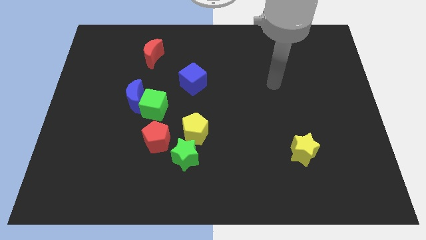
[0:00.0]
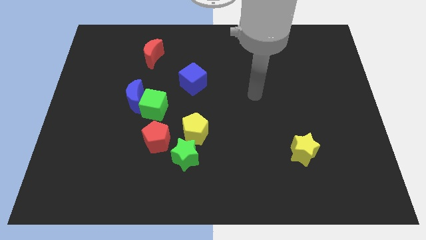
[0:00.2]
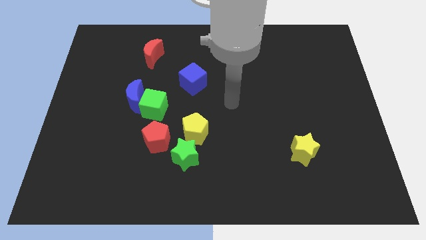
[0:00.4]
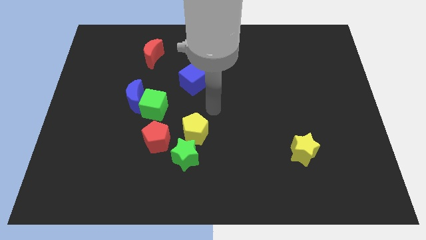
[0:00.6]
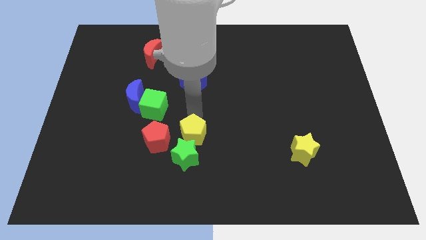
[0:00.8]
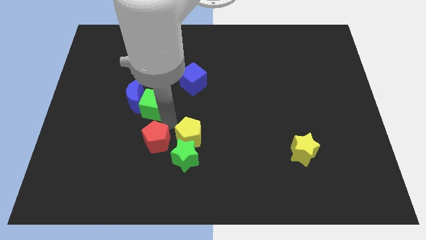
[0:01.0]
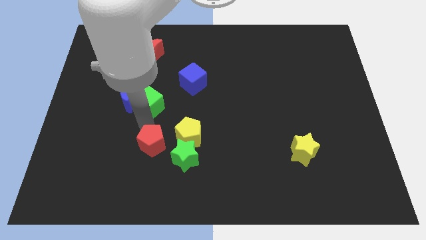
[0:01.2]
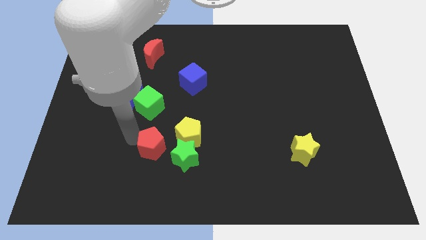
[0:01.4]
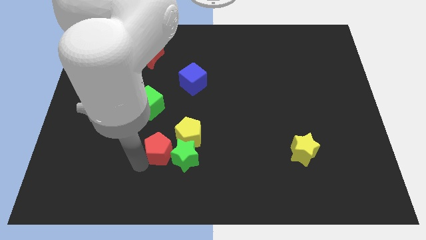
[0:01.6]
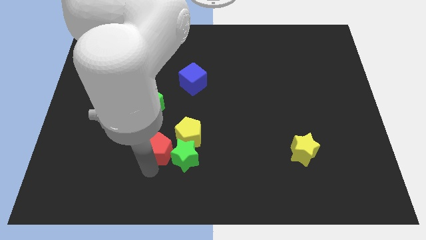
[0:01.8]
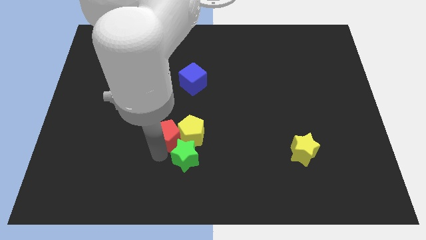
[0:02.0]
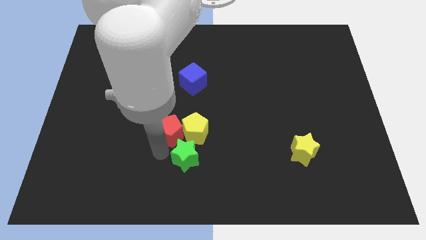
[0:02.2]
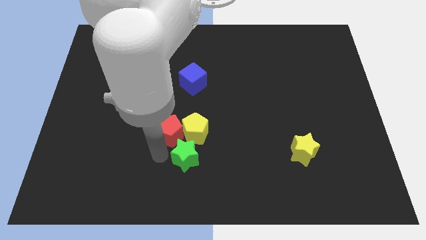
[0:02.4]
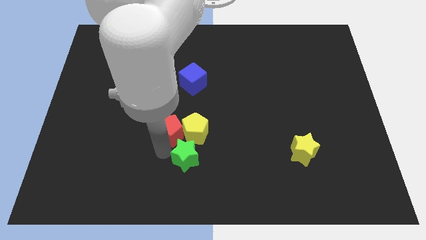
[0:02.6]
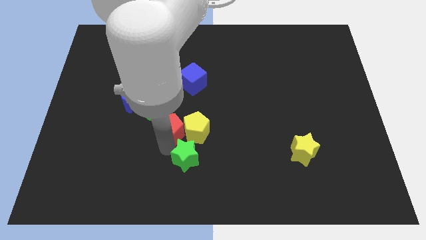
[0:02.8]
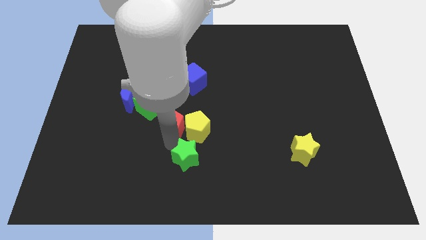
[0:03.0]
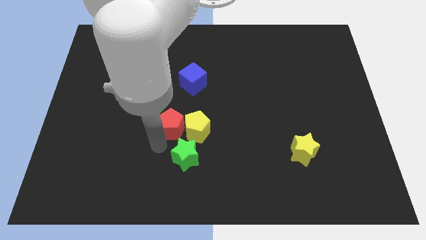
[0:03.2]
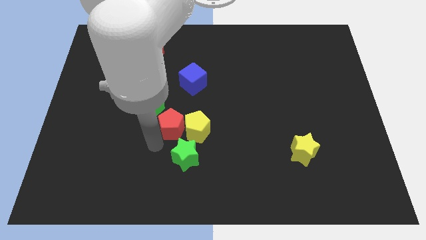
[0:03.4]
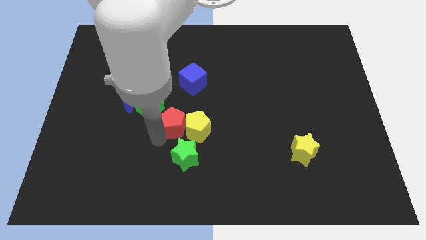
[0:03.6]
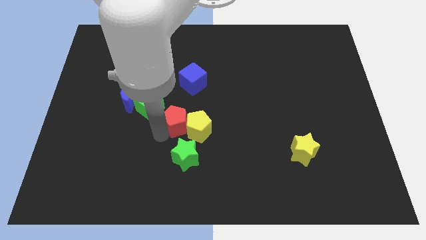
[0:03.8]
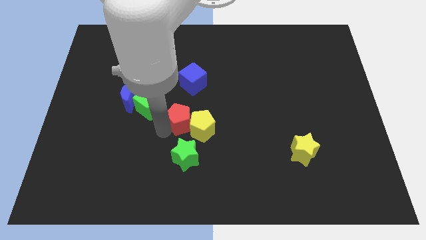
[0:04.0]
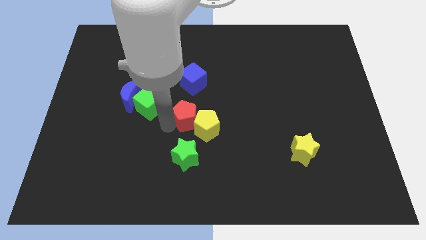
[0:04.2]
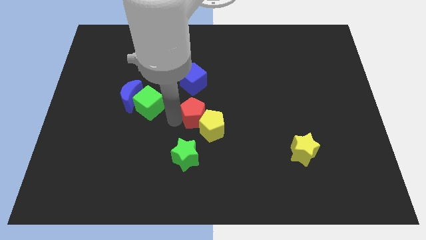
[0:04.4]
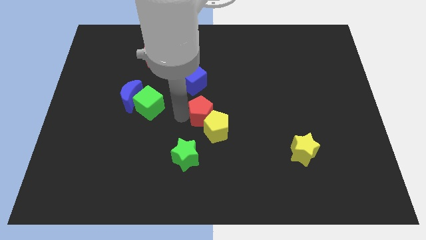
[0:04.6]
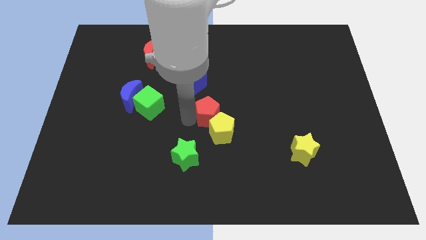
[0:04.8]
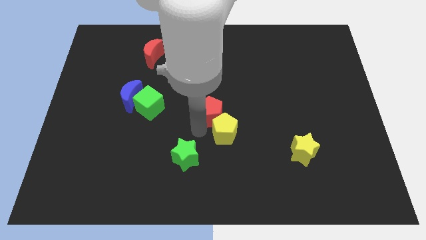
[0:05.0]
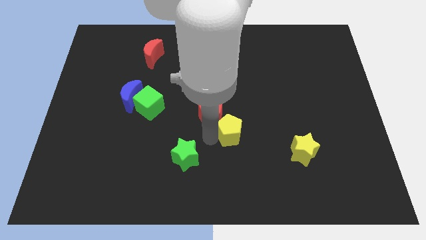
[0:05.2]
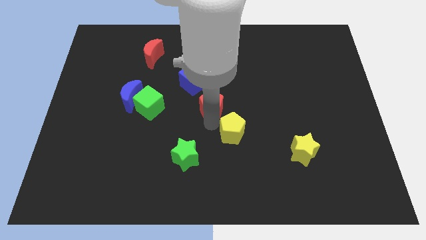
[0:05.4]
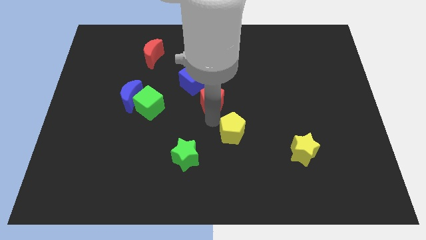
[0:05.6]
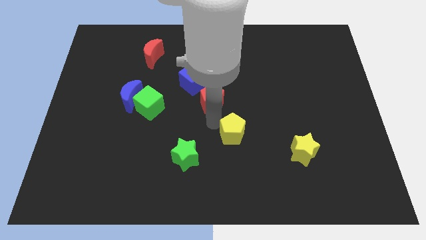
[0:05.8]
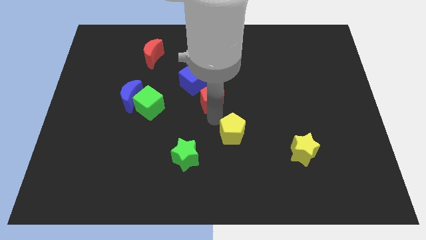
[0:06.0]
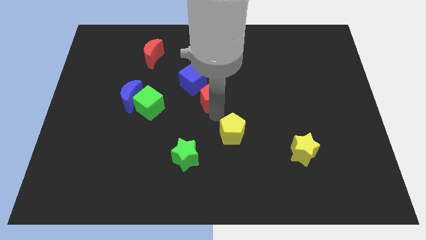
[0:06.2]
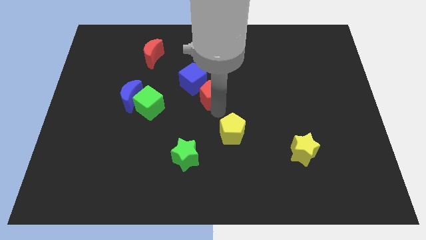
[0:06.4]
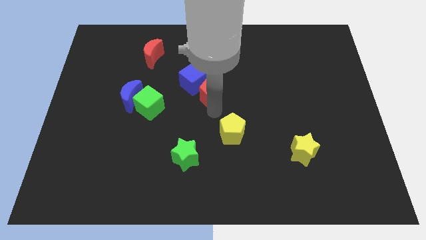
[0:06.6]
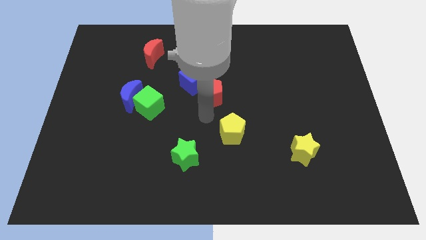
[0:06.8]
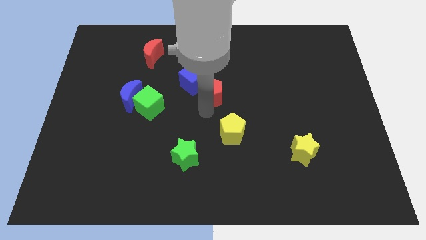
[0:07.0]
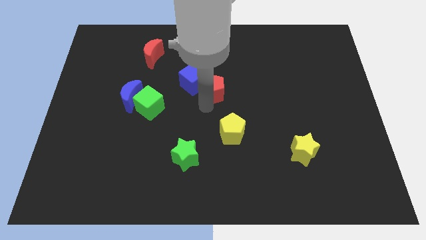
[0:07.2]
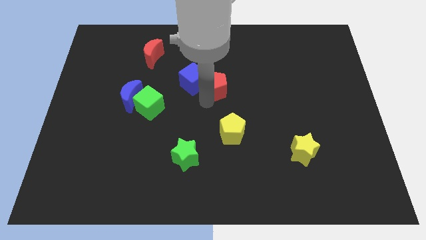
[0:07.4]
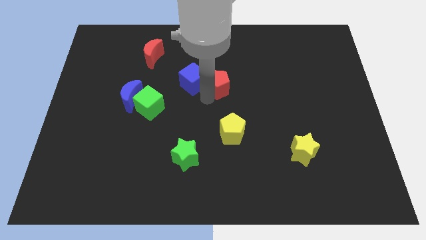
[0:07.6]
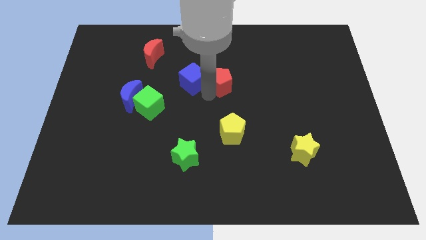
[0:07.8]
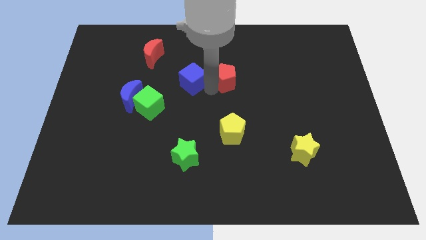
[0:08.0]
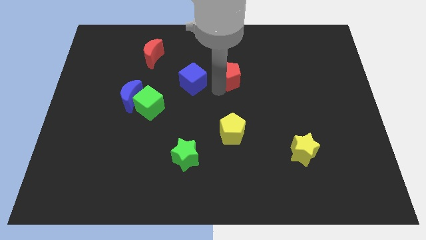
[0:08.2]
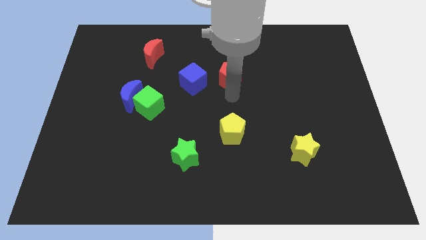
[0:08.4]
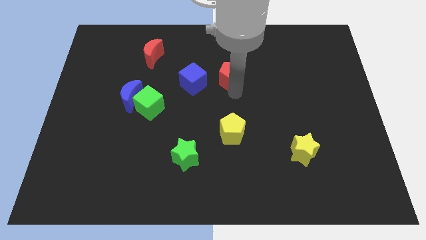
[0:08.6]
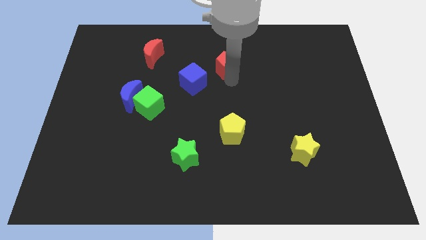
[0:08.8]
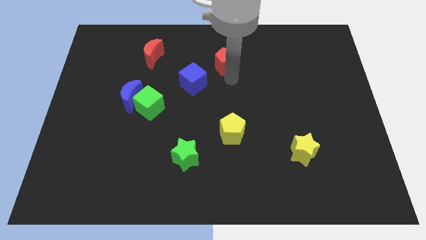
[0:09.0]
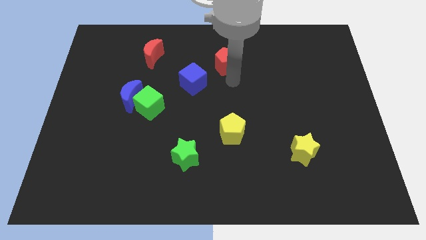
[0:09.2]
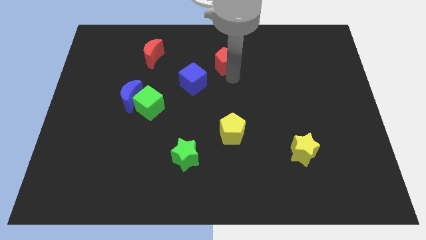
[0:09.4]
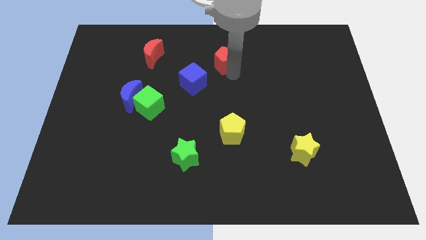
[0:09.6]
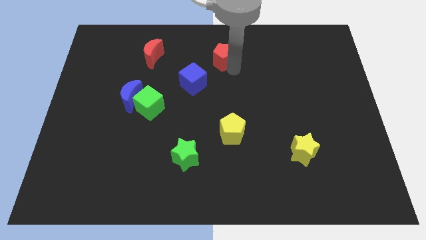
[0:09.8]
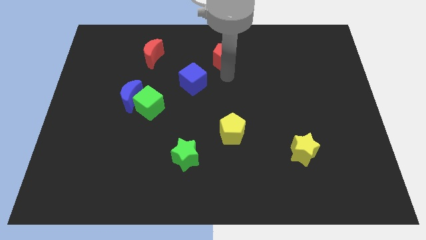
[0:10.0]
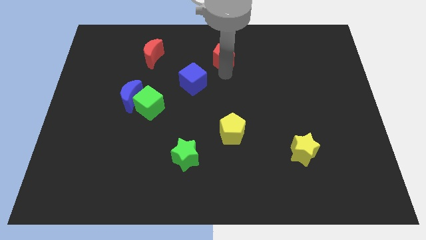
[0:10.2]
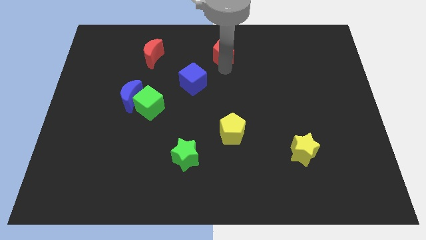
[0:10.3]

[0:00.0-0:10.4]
slide the red pentagon to the top

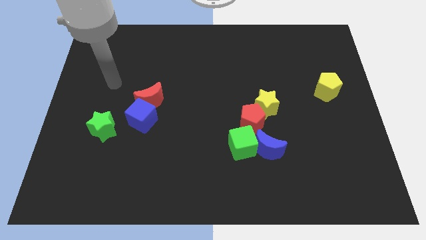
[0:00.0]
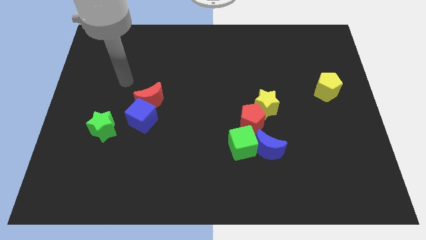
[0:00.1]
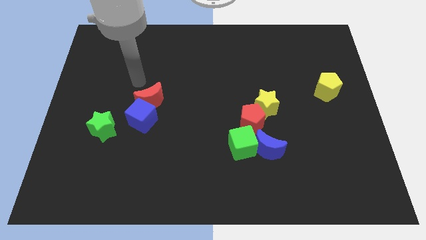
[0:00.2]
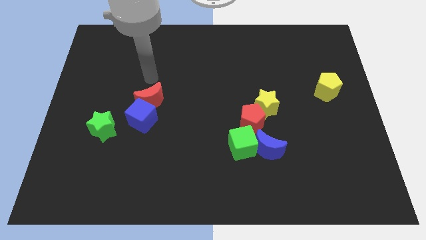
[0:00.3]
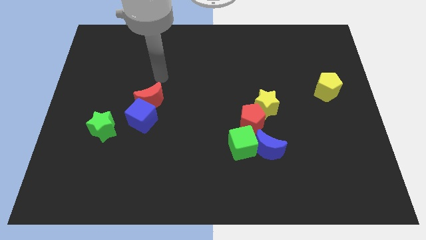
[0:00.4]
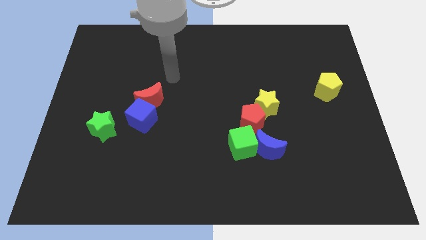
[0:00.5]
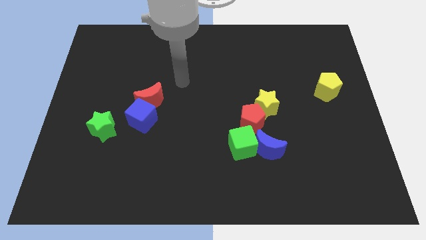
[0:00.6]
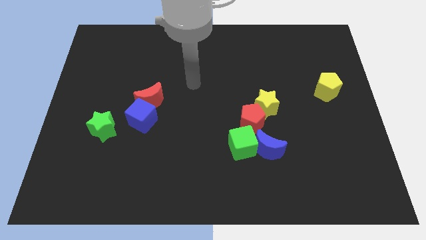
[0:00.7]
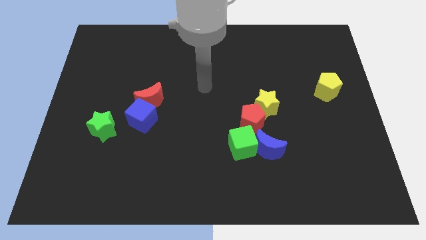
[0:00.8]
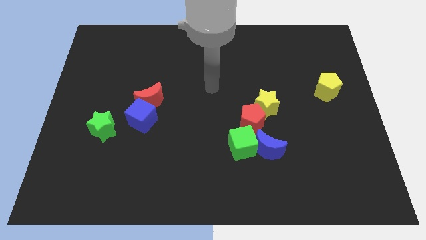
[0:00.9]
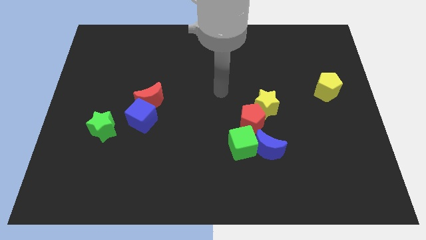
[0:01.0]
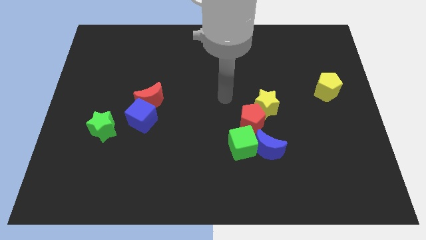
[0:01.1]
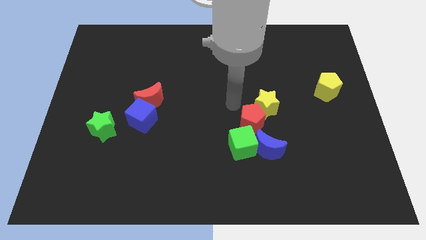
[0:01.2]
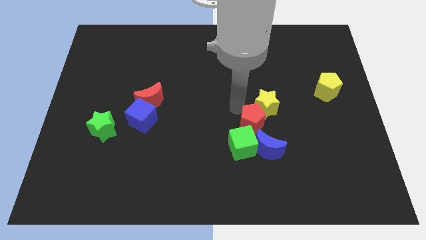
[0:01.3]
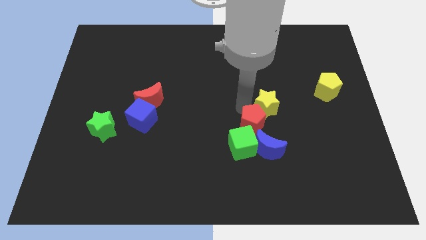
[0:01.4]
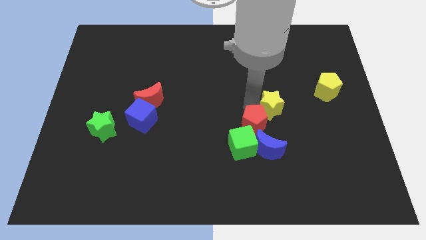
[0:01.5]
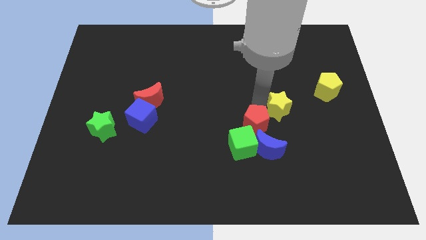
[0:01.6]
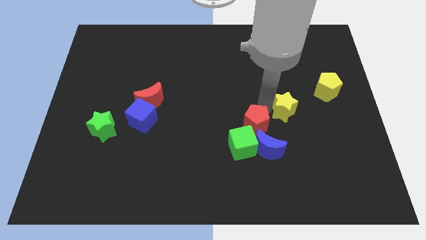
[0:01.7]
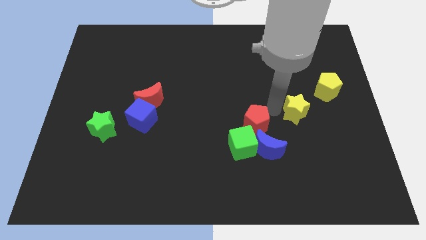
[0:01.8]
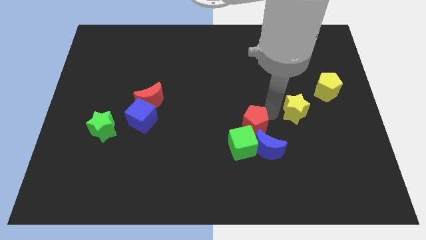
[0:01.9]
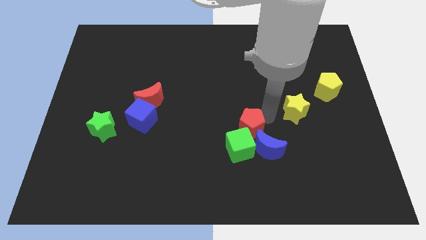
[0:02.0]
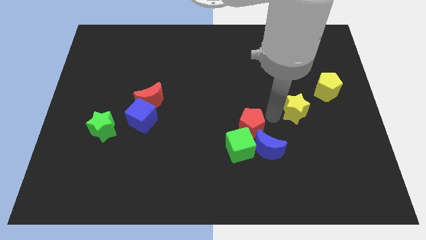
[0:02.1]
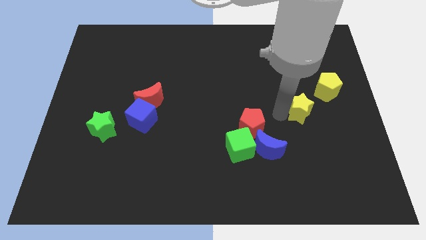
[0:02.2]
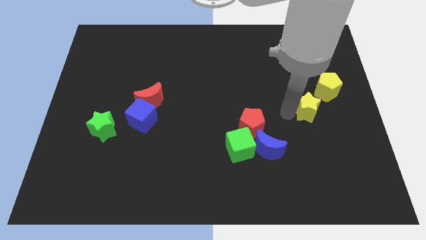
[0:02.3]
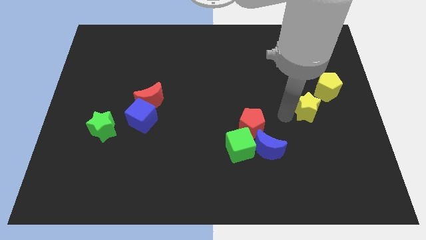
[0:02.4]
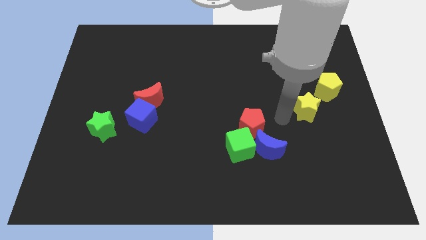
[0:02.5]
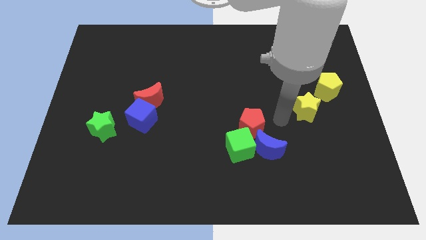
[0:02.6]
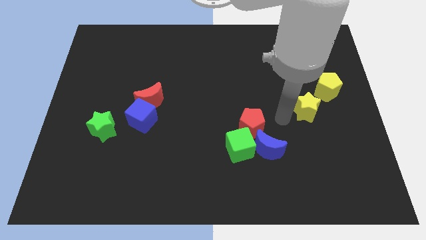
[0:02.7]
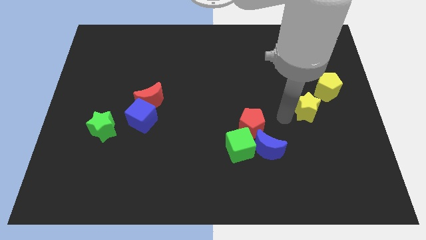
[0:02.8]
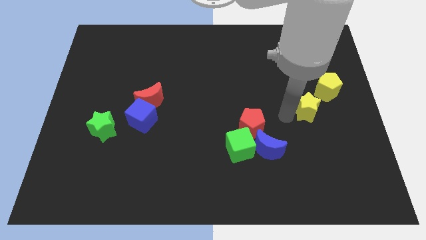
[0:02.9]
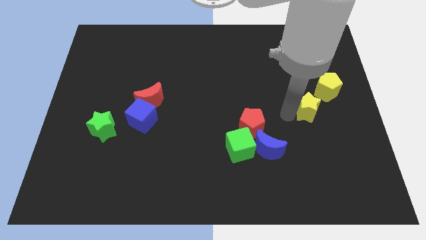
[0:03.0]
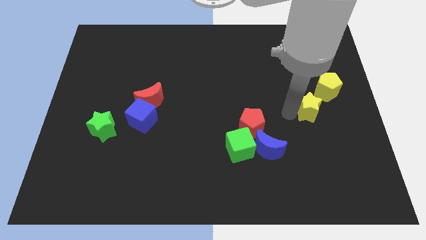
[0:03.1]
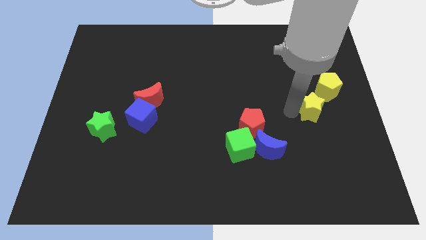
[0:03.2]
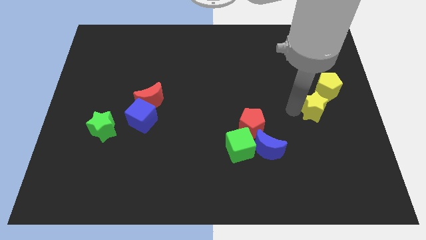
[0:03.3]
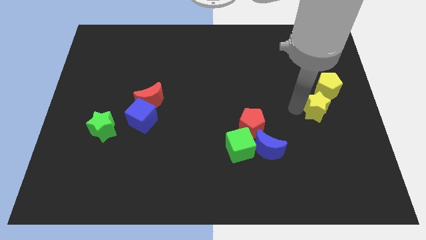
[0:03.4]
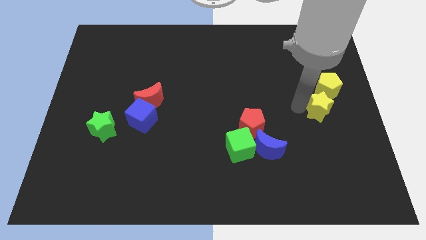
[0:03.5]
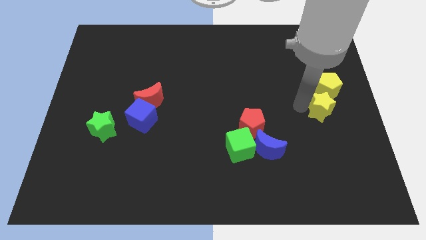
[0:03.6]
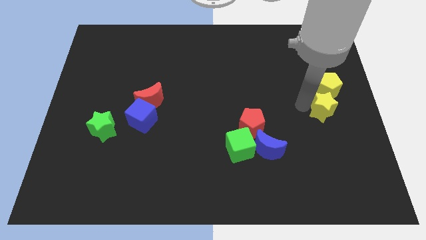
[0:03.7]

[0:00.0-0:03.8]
push the yellow star to the center right
